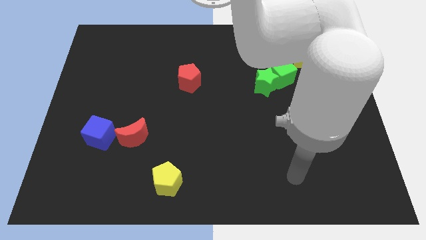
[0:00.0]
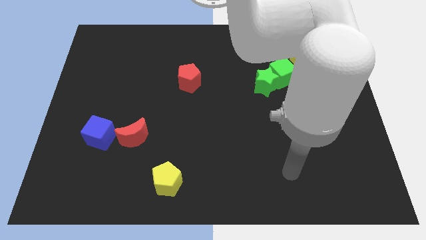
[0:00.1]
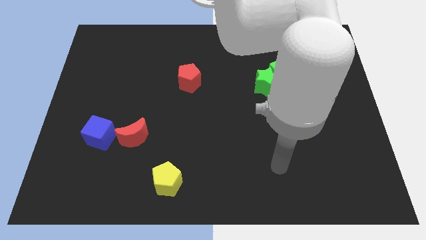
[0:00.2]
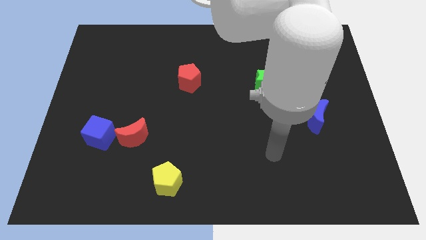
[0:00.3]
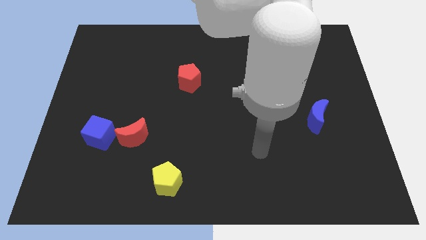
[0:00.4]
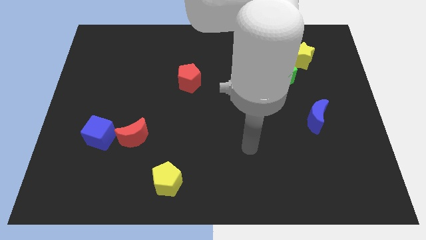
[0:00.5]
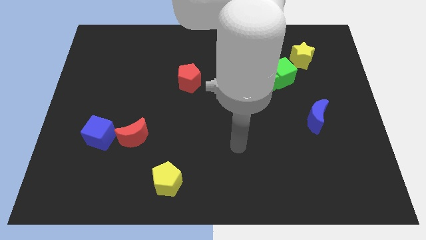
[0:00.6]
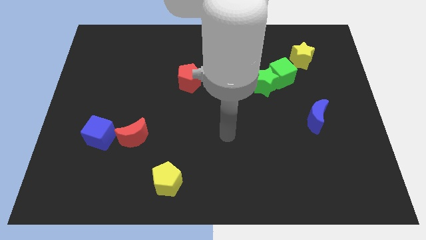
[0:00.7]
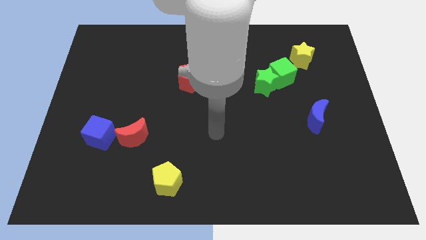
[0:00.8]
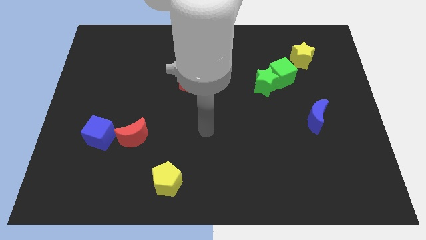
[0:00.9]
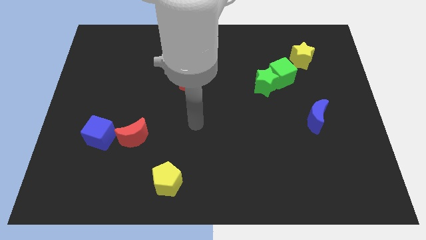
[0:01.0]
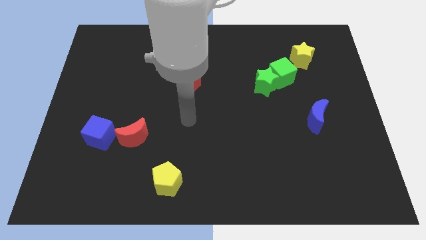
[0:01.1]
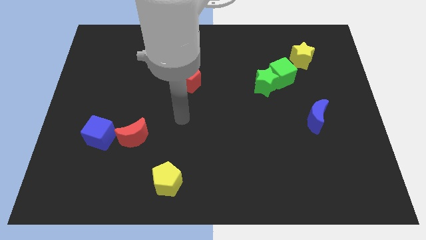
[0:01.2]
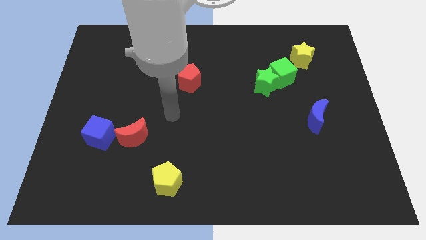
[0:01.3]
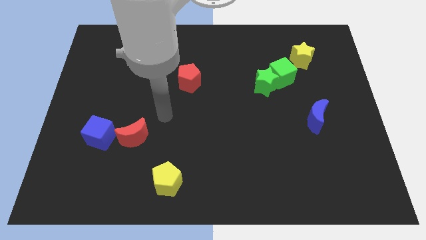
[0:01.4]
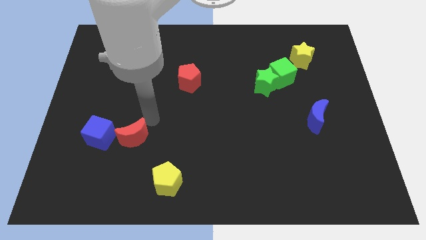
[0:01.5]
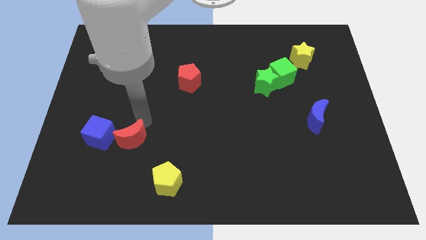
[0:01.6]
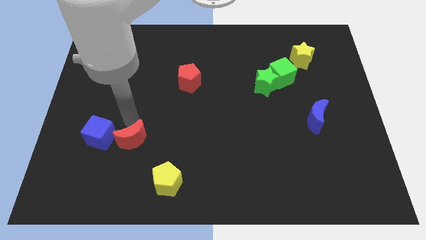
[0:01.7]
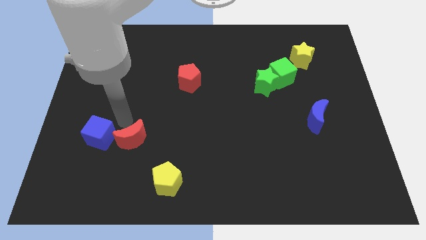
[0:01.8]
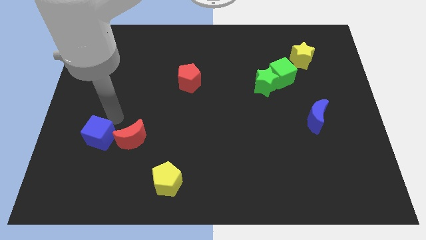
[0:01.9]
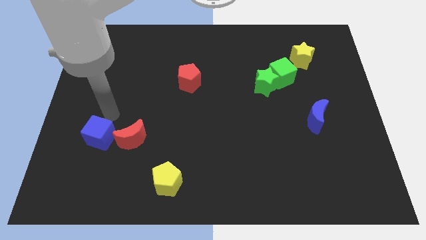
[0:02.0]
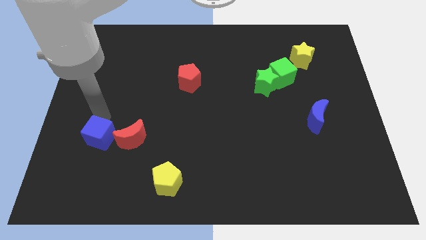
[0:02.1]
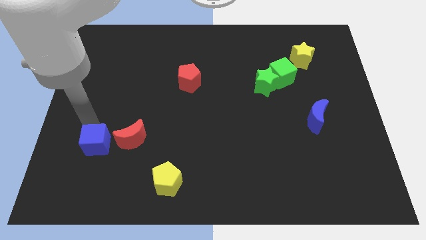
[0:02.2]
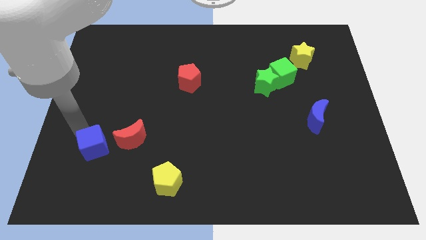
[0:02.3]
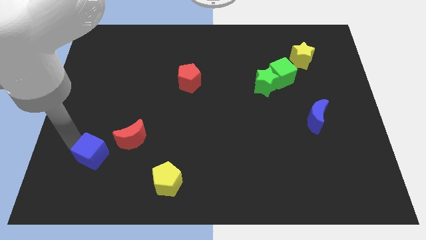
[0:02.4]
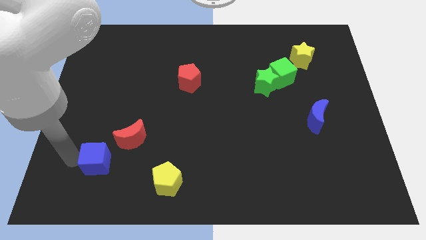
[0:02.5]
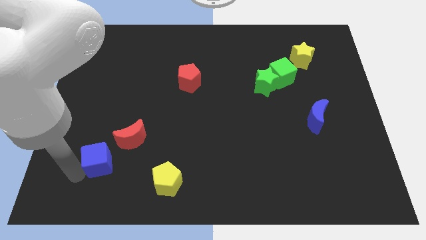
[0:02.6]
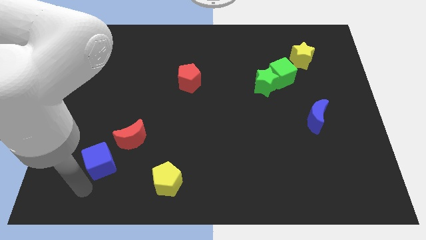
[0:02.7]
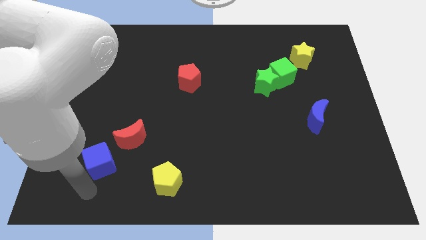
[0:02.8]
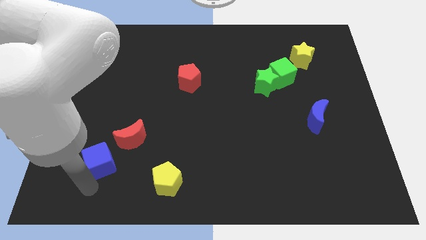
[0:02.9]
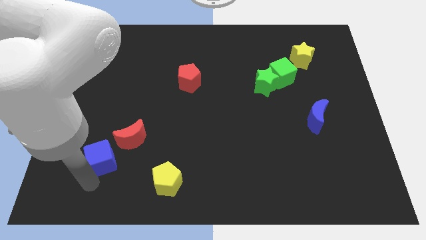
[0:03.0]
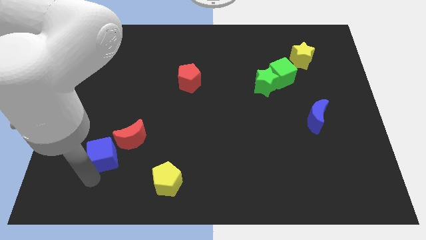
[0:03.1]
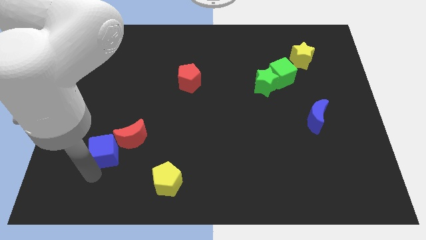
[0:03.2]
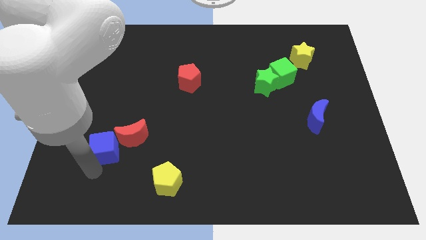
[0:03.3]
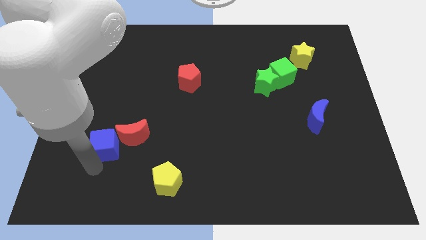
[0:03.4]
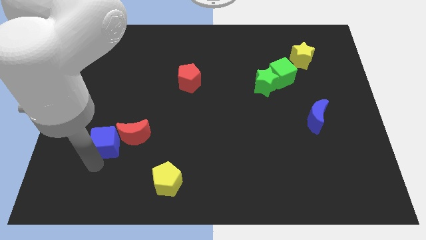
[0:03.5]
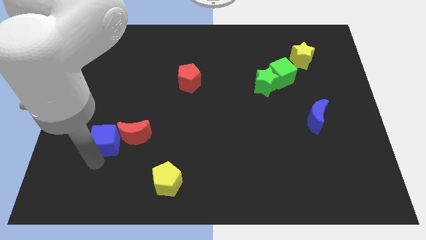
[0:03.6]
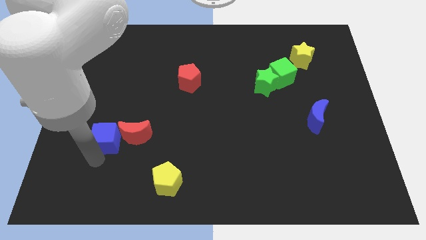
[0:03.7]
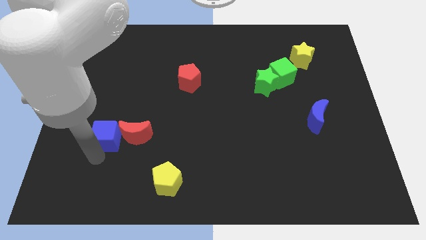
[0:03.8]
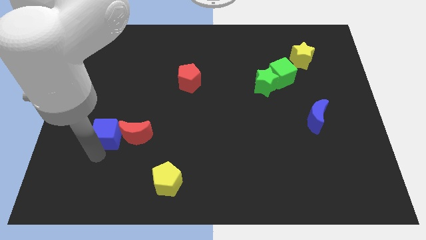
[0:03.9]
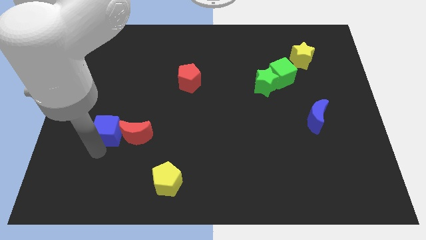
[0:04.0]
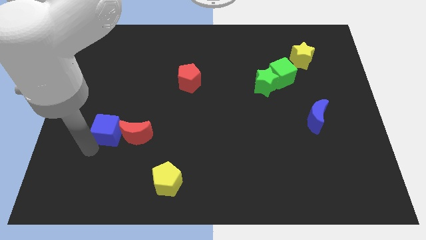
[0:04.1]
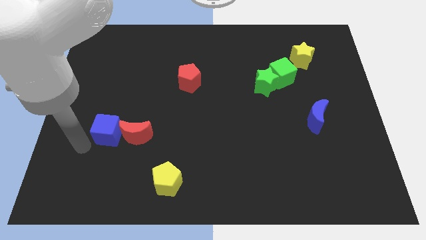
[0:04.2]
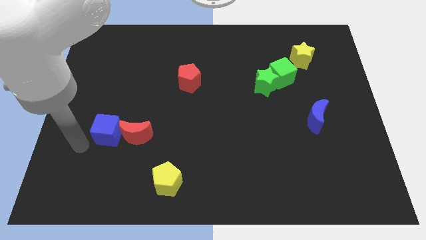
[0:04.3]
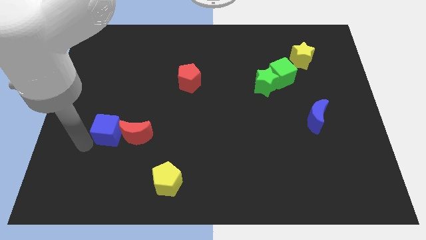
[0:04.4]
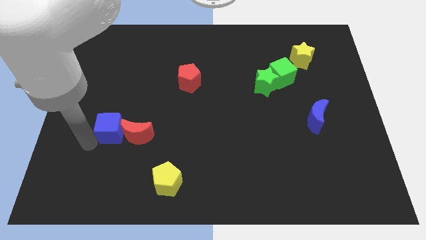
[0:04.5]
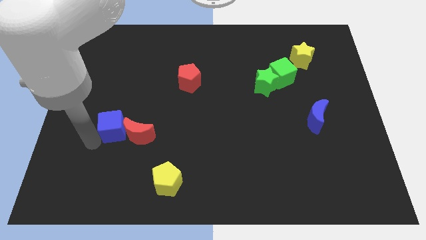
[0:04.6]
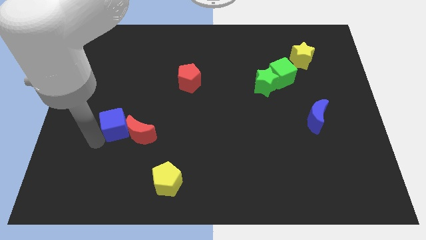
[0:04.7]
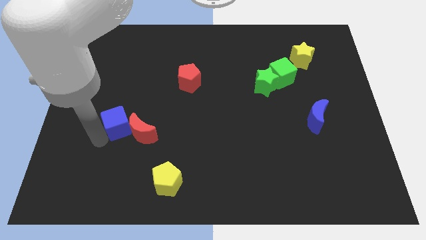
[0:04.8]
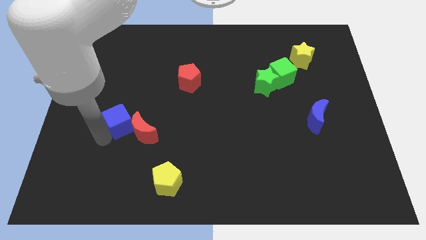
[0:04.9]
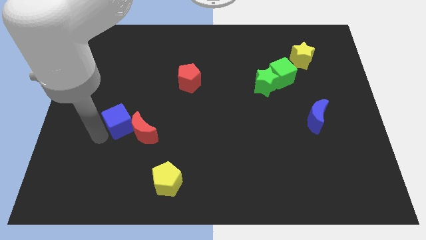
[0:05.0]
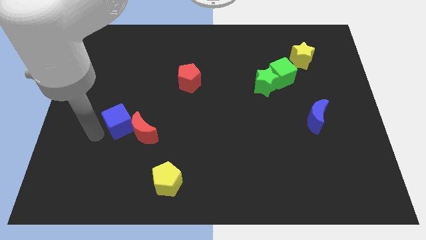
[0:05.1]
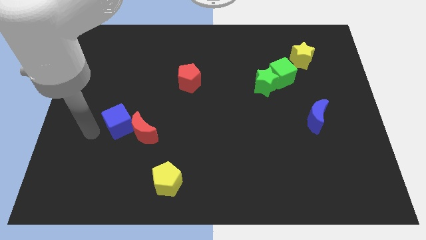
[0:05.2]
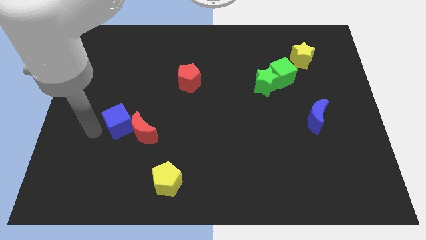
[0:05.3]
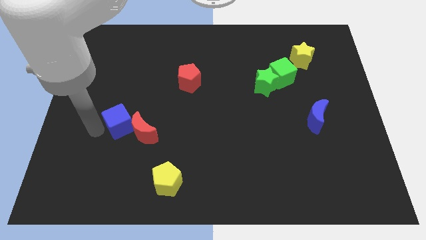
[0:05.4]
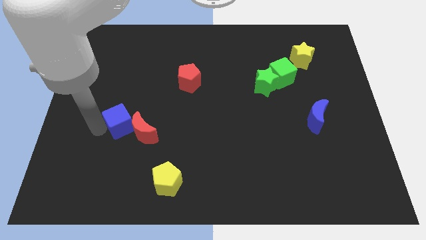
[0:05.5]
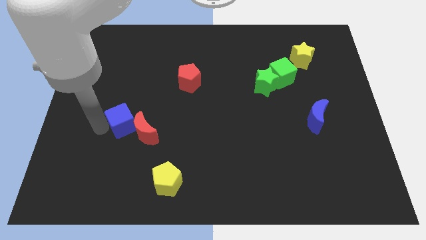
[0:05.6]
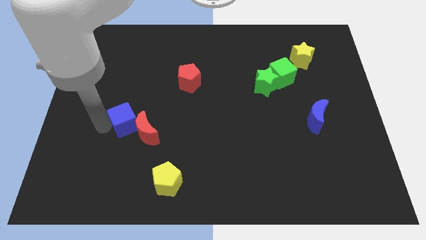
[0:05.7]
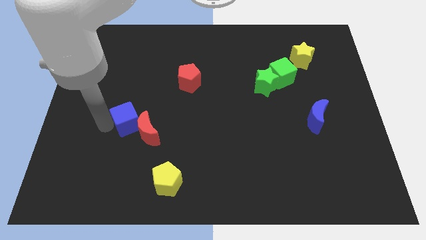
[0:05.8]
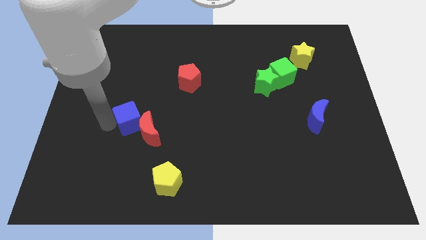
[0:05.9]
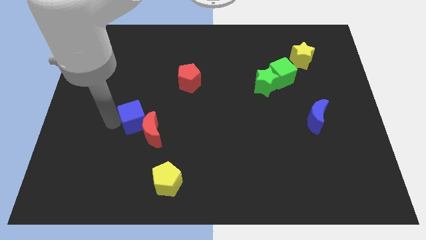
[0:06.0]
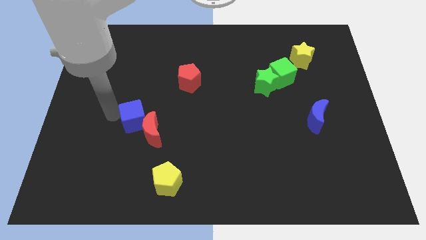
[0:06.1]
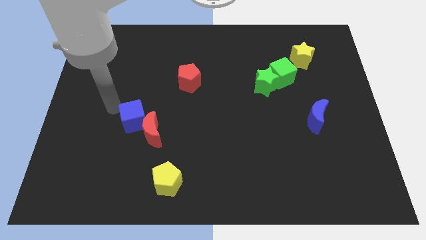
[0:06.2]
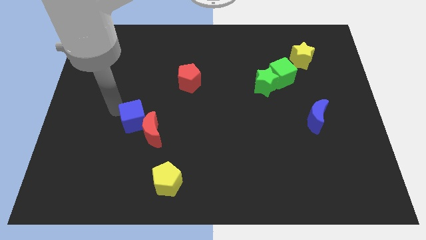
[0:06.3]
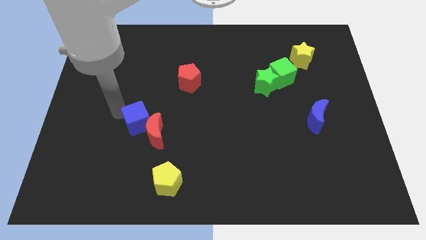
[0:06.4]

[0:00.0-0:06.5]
push the blue cube right slightly

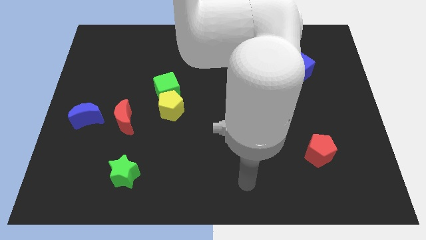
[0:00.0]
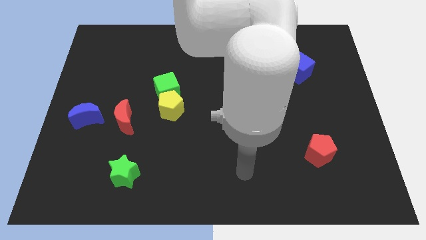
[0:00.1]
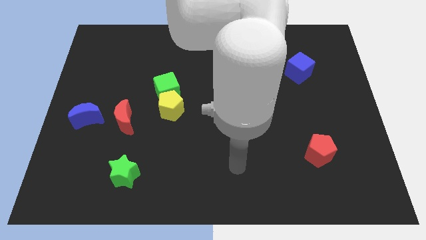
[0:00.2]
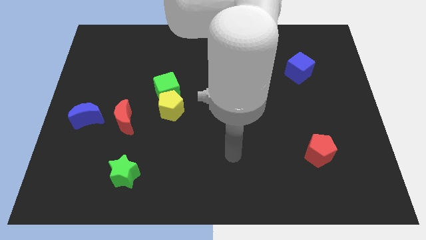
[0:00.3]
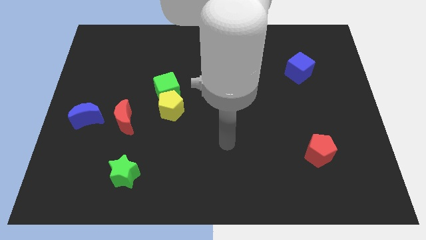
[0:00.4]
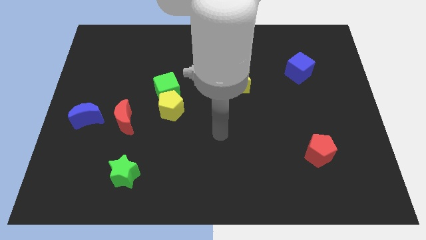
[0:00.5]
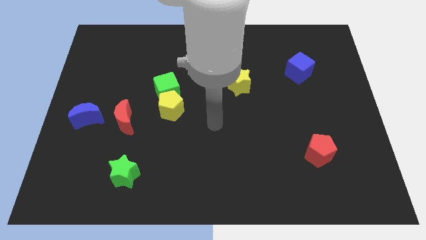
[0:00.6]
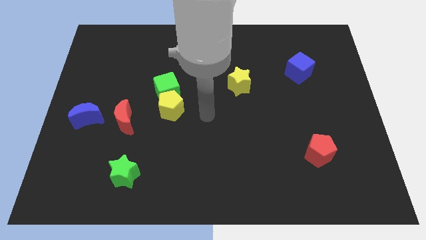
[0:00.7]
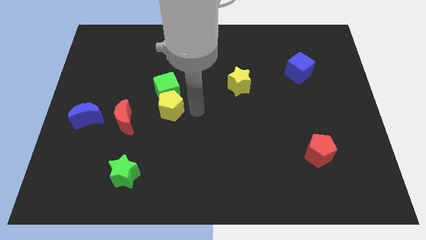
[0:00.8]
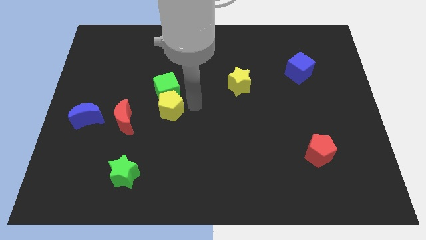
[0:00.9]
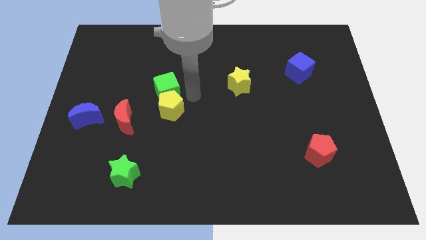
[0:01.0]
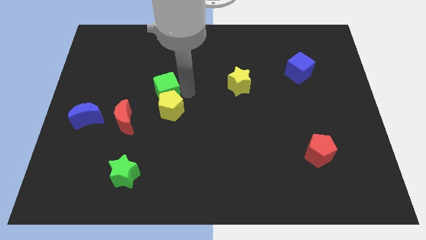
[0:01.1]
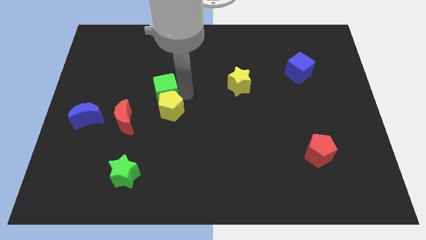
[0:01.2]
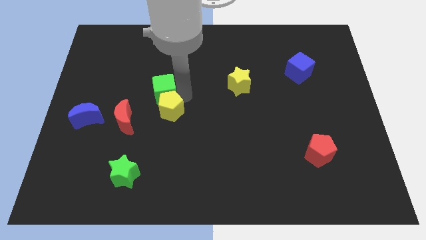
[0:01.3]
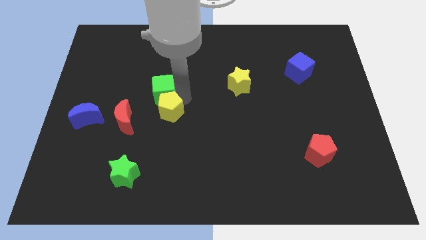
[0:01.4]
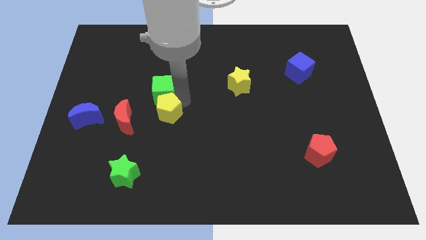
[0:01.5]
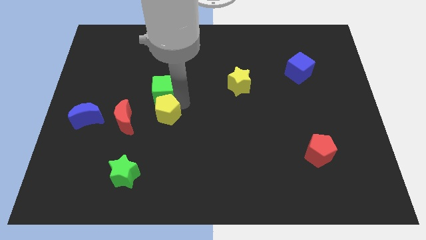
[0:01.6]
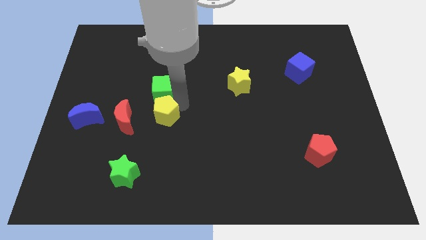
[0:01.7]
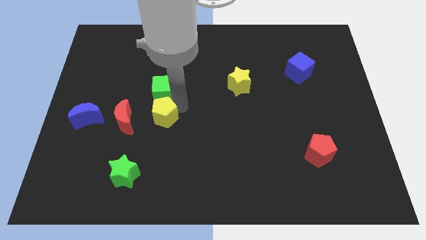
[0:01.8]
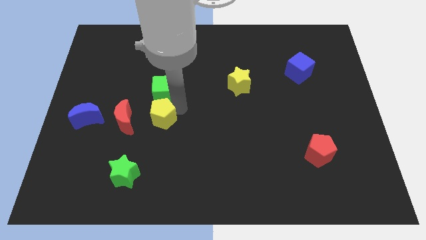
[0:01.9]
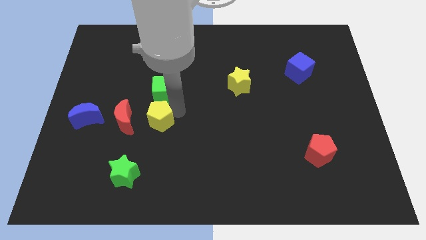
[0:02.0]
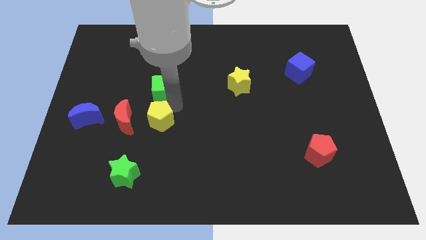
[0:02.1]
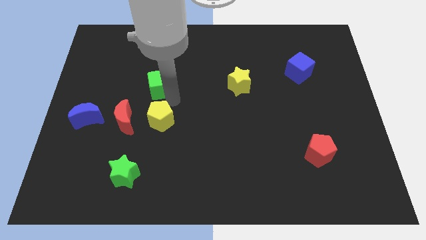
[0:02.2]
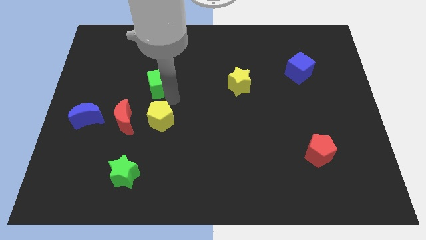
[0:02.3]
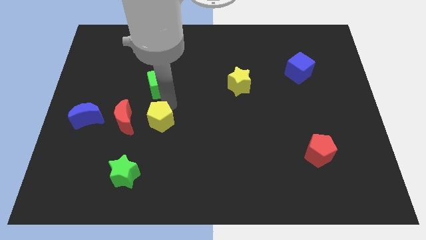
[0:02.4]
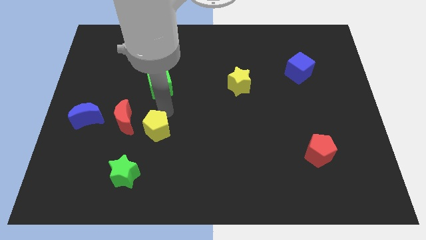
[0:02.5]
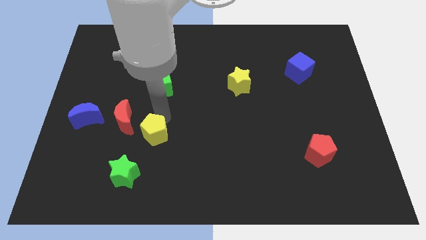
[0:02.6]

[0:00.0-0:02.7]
move the yellow pentagon a bit downwards and to the left diagonally
